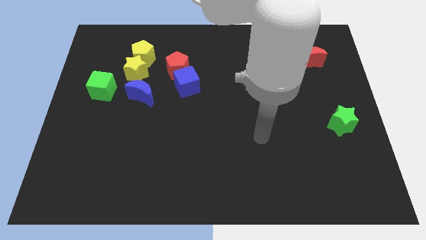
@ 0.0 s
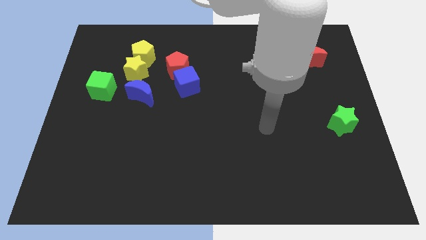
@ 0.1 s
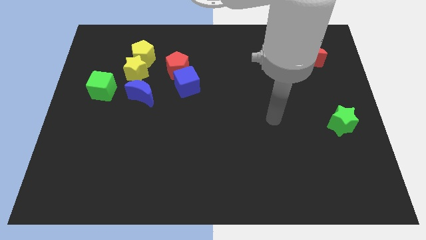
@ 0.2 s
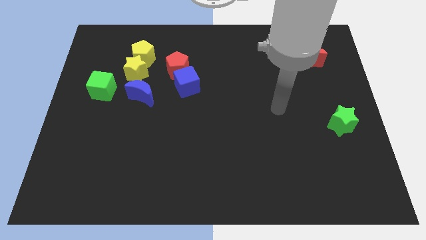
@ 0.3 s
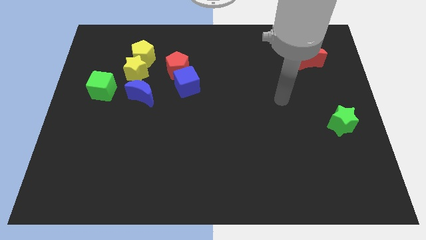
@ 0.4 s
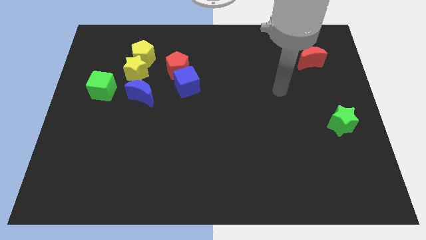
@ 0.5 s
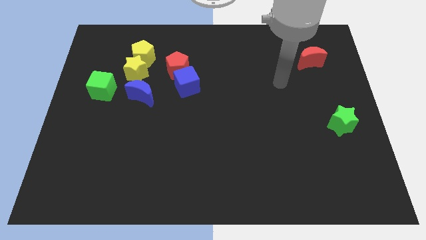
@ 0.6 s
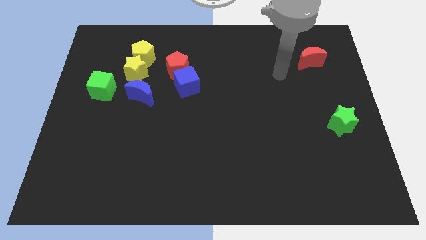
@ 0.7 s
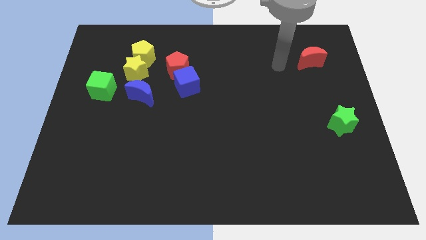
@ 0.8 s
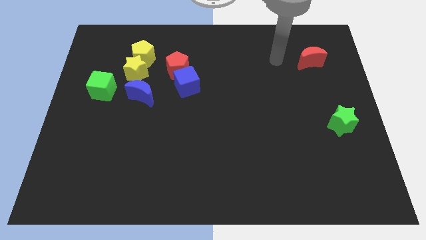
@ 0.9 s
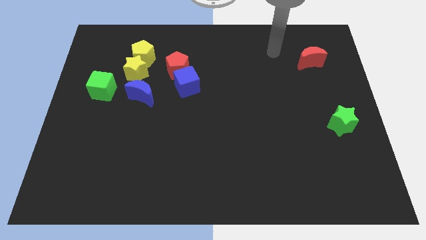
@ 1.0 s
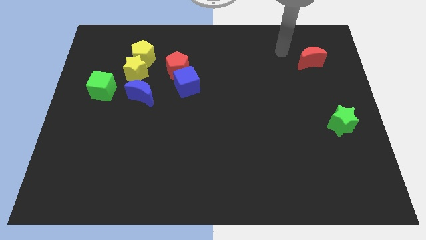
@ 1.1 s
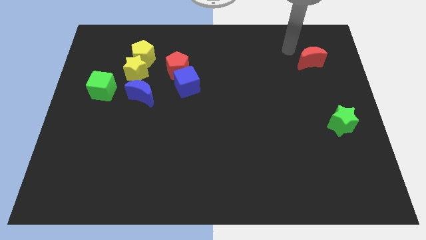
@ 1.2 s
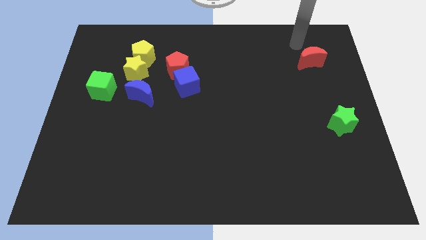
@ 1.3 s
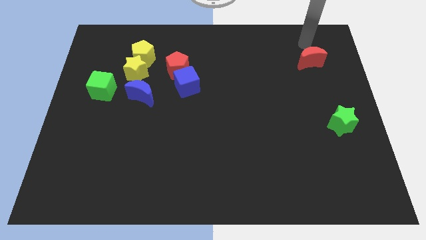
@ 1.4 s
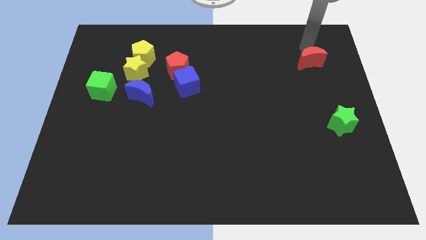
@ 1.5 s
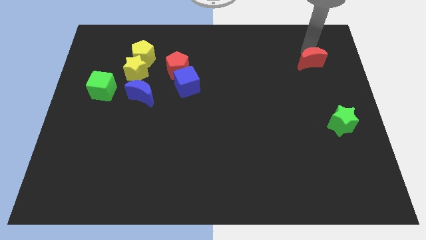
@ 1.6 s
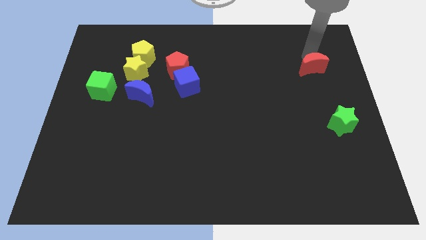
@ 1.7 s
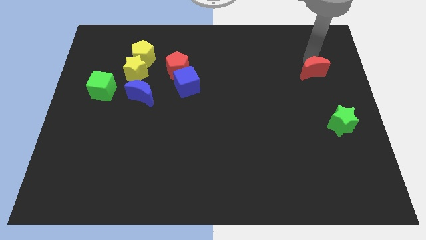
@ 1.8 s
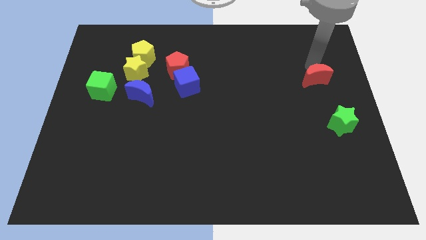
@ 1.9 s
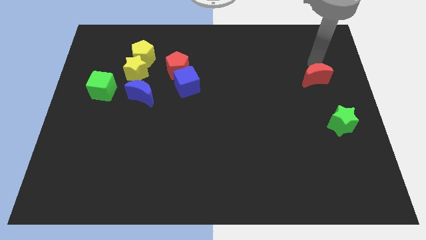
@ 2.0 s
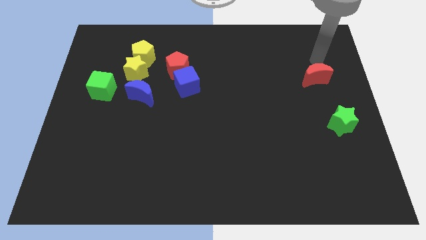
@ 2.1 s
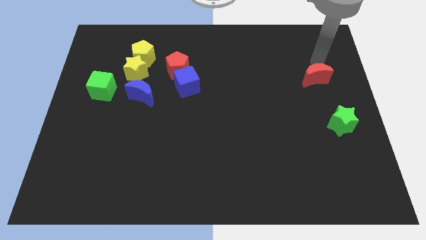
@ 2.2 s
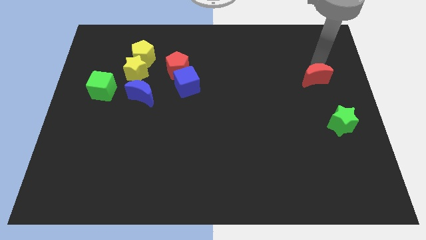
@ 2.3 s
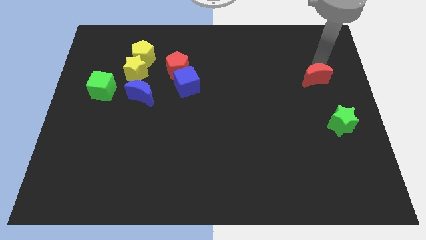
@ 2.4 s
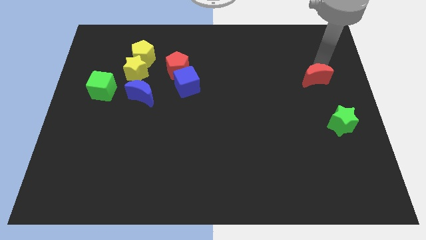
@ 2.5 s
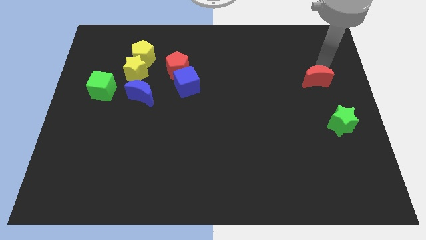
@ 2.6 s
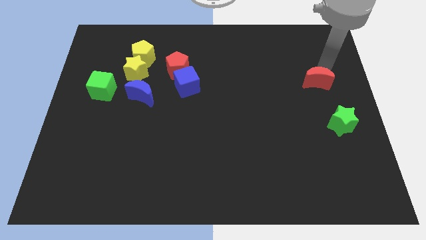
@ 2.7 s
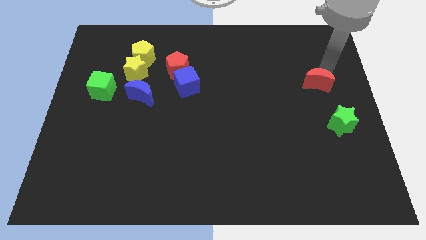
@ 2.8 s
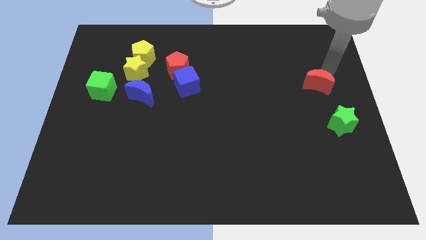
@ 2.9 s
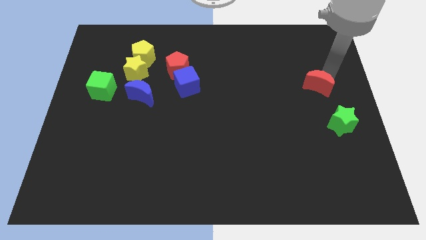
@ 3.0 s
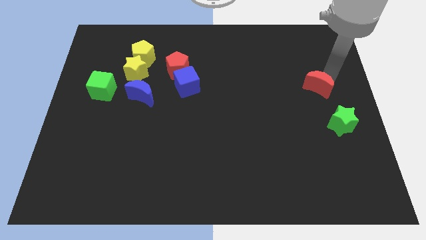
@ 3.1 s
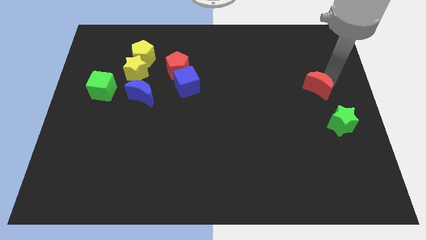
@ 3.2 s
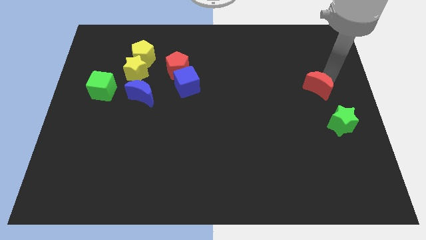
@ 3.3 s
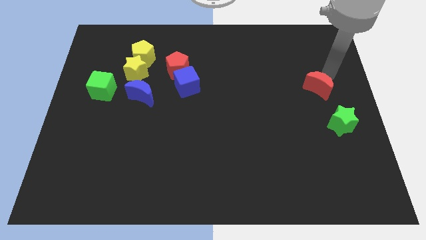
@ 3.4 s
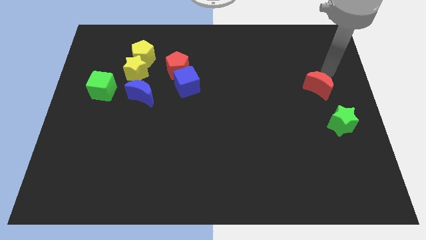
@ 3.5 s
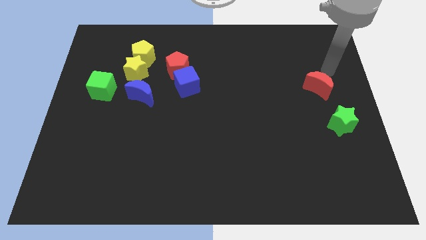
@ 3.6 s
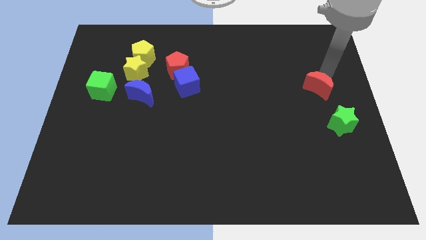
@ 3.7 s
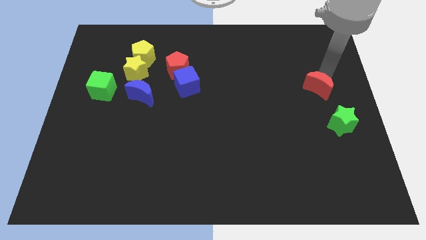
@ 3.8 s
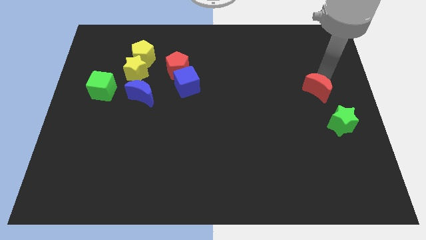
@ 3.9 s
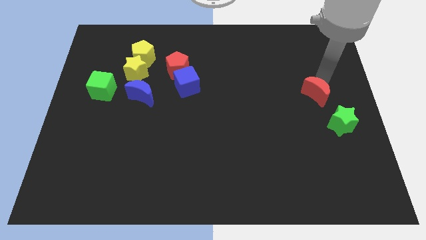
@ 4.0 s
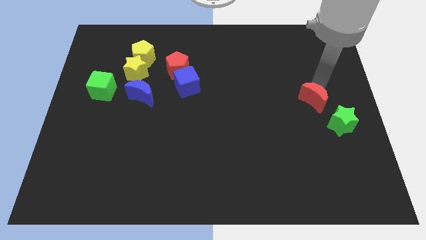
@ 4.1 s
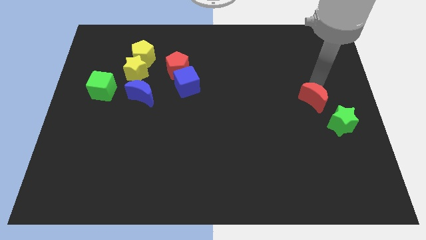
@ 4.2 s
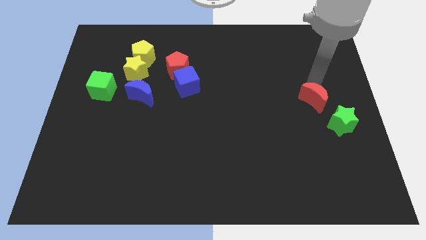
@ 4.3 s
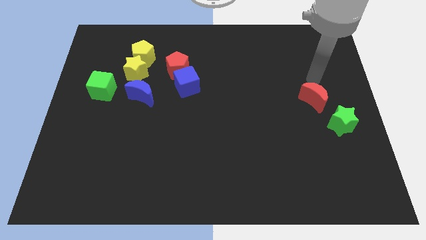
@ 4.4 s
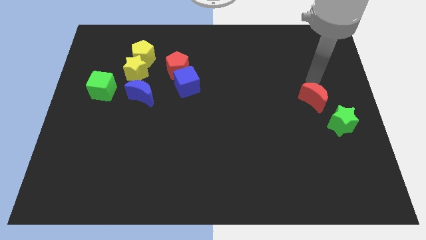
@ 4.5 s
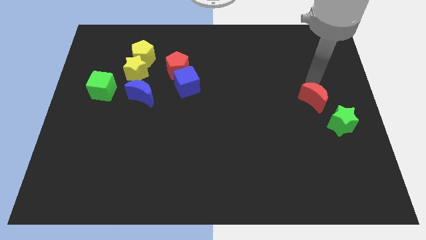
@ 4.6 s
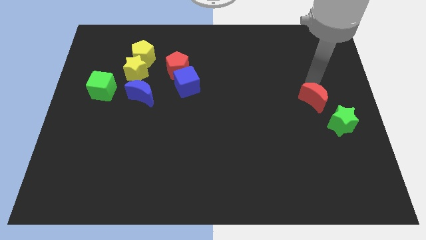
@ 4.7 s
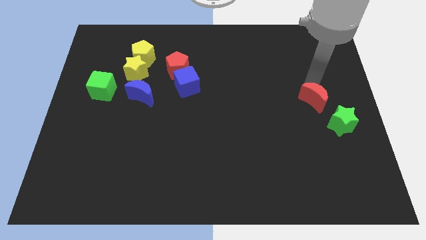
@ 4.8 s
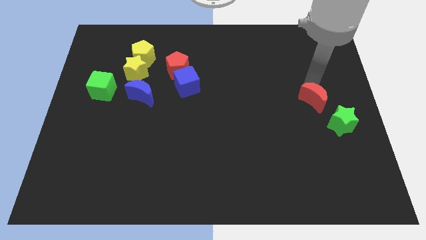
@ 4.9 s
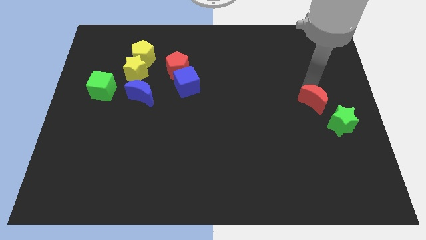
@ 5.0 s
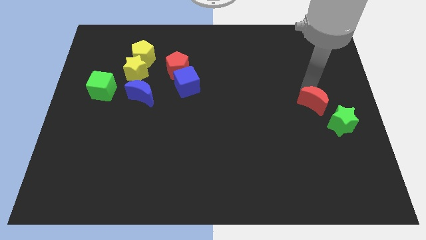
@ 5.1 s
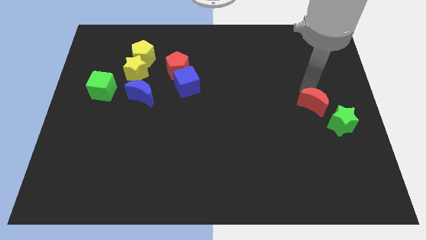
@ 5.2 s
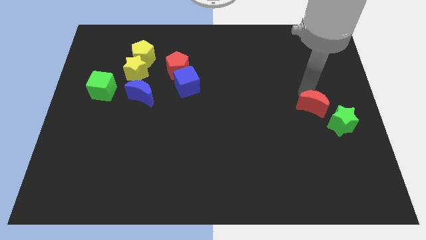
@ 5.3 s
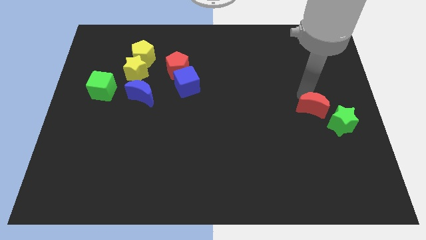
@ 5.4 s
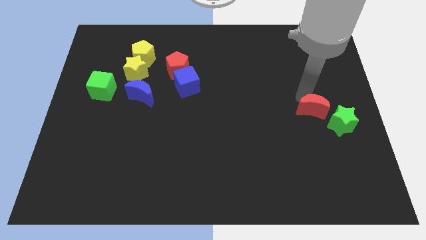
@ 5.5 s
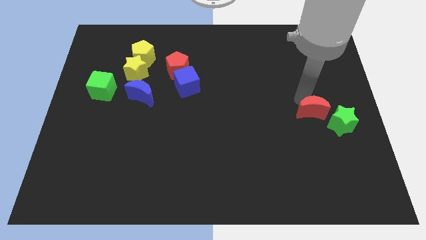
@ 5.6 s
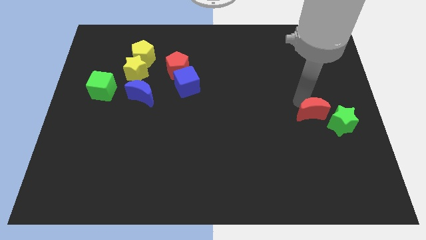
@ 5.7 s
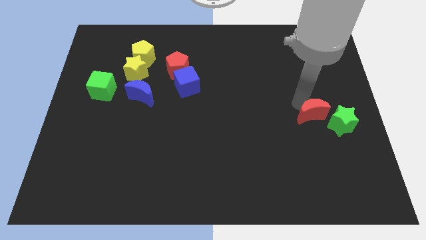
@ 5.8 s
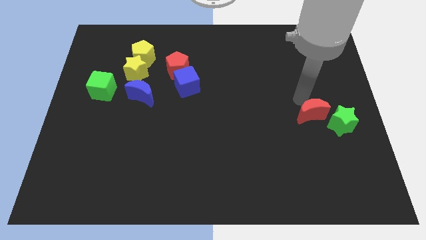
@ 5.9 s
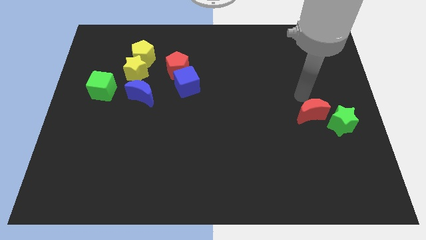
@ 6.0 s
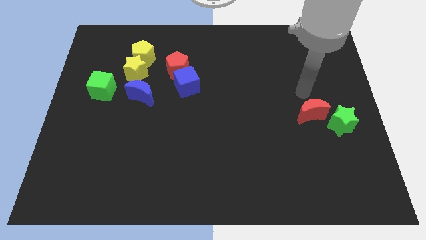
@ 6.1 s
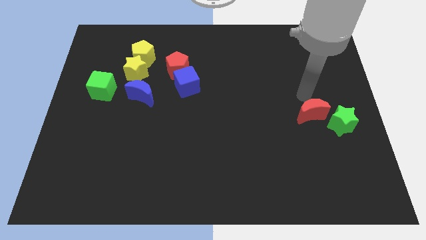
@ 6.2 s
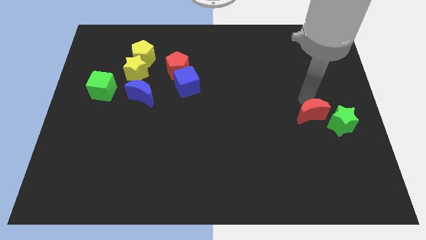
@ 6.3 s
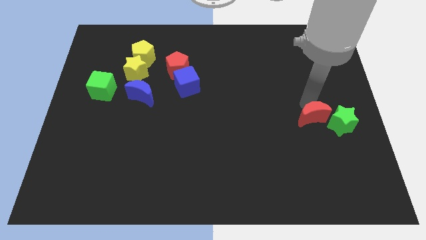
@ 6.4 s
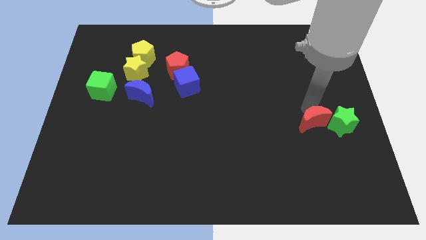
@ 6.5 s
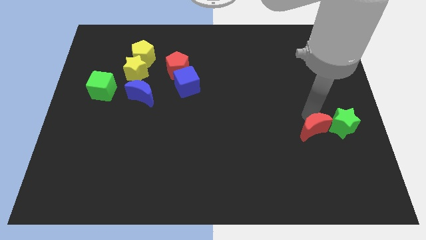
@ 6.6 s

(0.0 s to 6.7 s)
push the red moon down

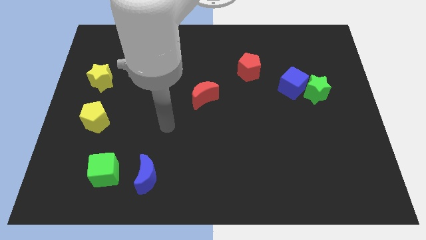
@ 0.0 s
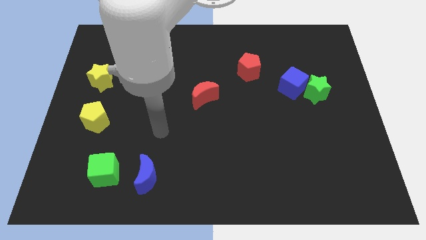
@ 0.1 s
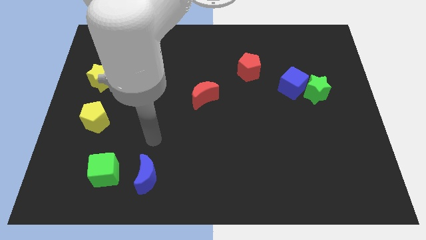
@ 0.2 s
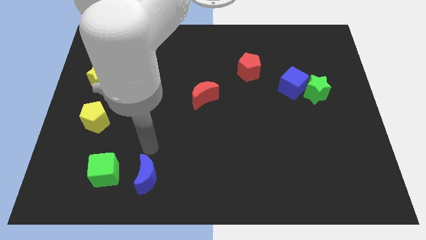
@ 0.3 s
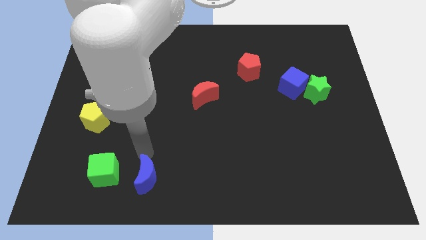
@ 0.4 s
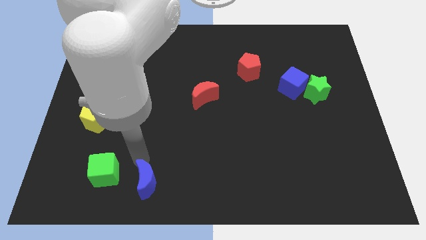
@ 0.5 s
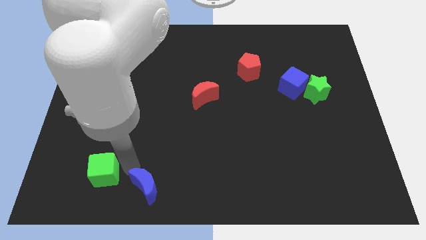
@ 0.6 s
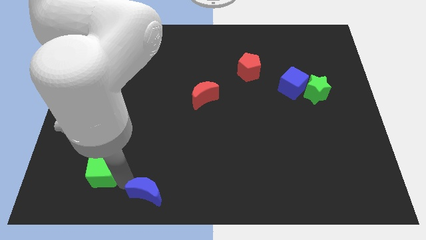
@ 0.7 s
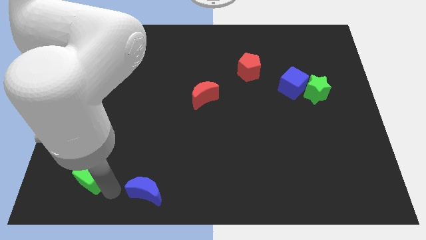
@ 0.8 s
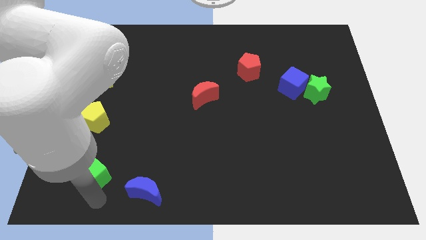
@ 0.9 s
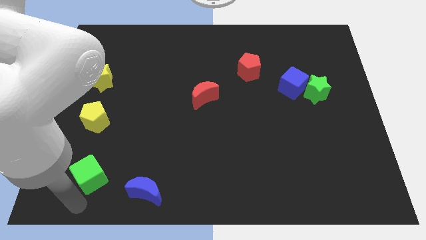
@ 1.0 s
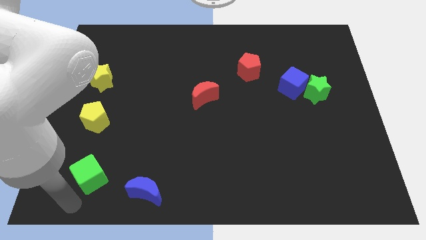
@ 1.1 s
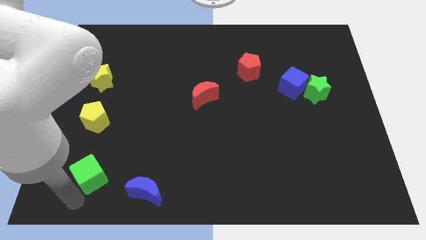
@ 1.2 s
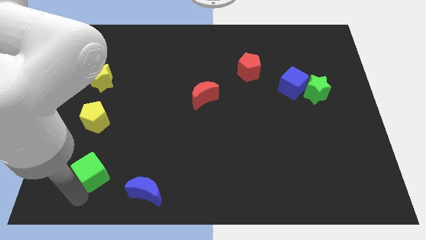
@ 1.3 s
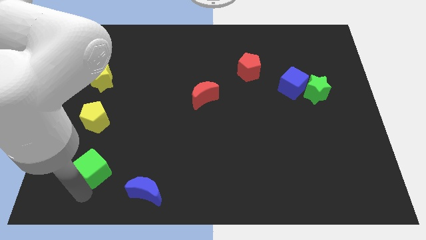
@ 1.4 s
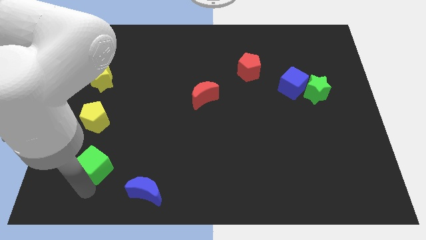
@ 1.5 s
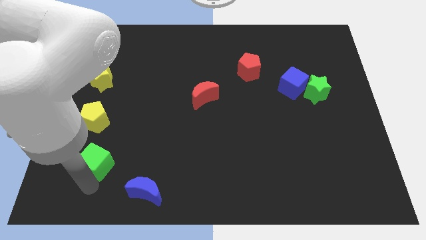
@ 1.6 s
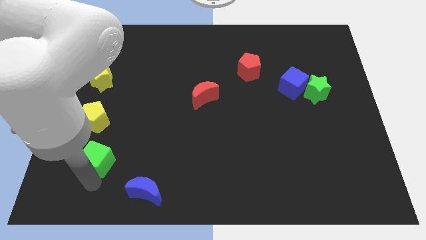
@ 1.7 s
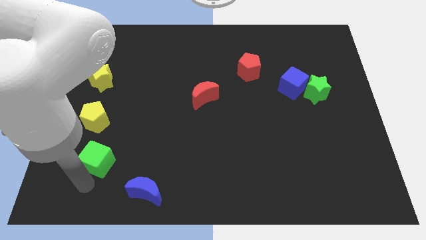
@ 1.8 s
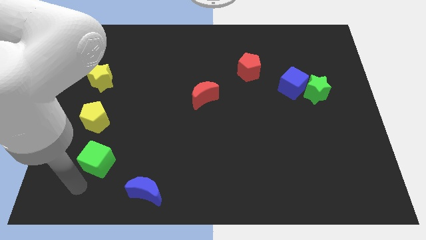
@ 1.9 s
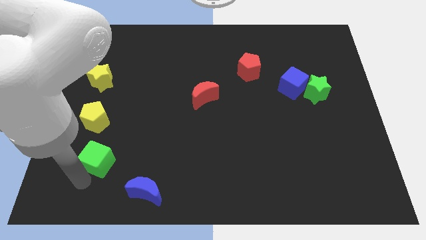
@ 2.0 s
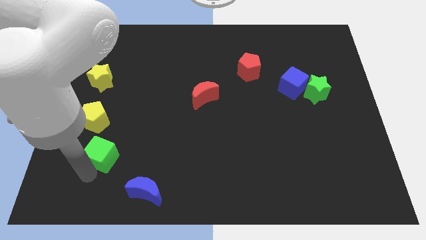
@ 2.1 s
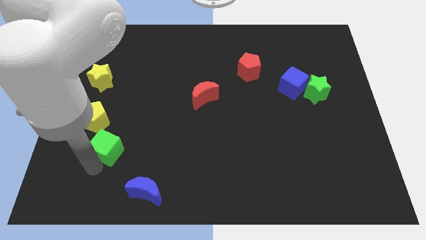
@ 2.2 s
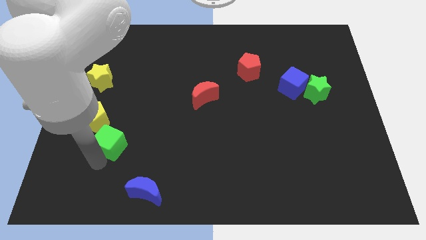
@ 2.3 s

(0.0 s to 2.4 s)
slightly push the green cube upwards
